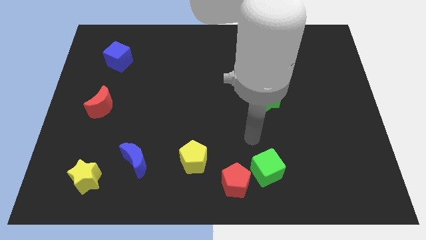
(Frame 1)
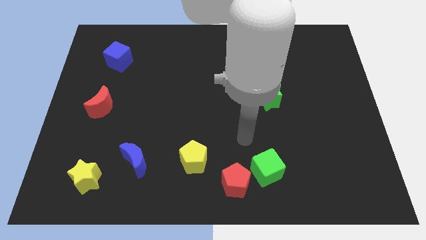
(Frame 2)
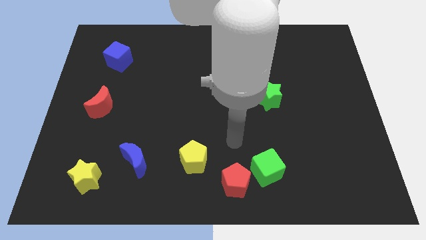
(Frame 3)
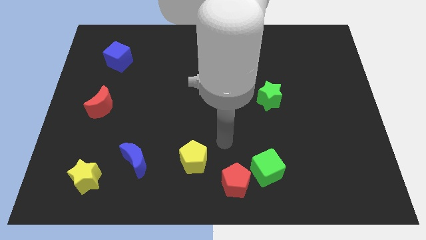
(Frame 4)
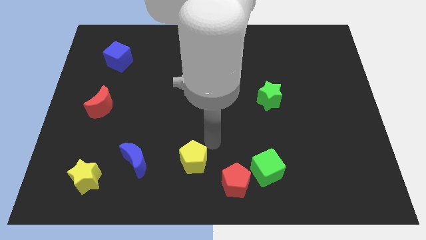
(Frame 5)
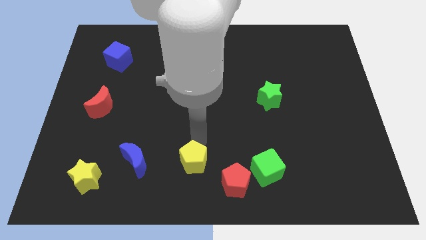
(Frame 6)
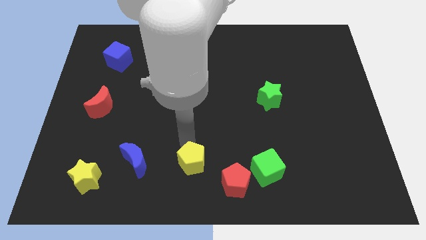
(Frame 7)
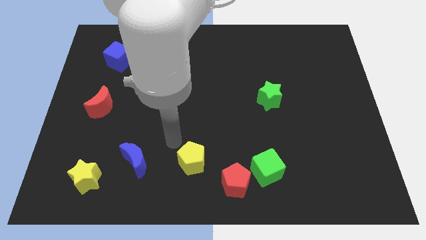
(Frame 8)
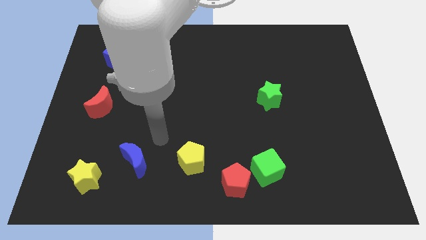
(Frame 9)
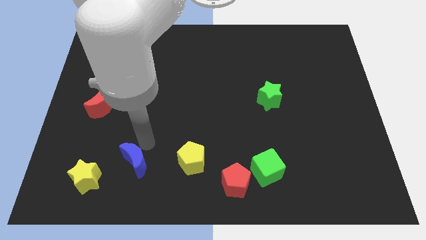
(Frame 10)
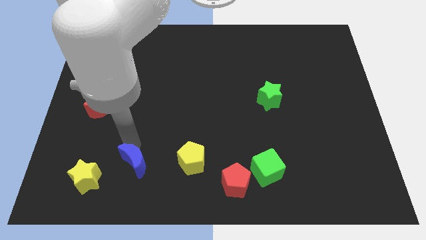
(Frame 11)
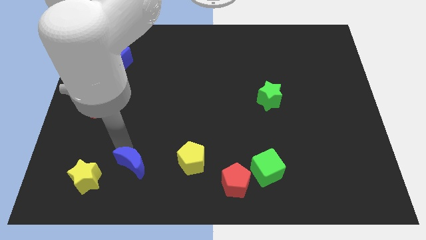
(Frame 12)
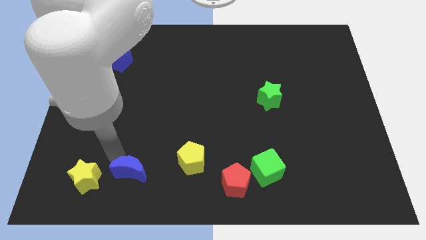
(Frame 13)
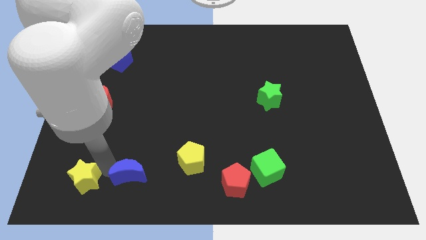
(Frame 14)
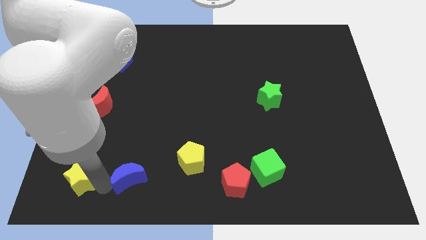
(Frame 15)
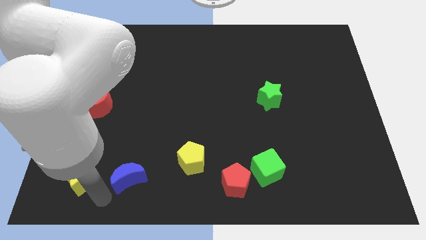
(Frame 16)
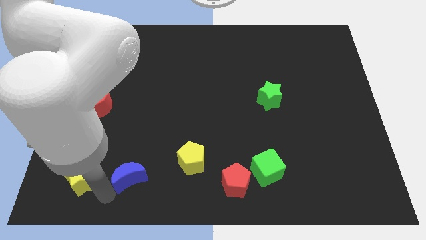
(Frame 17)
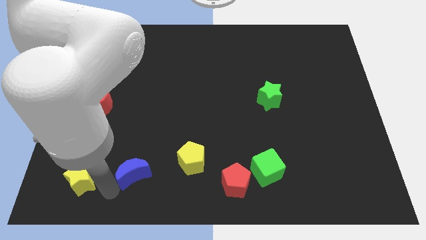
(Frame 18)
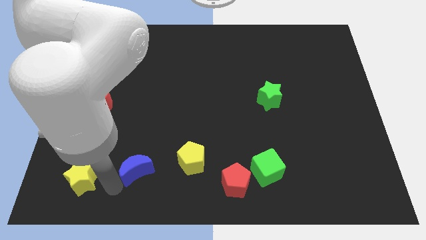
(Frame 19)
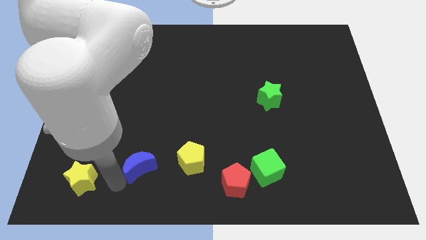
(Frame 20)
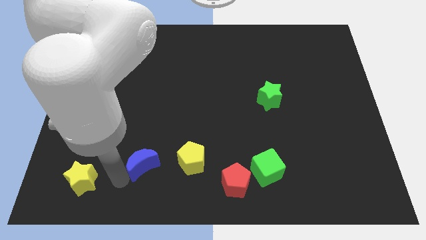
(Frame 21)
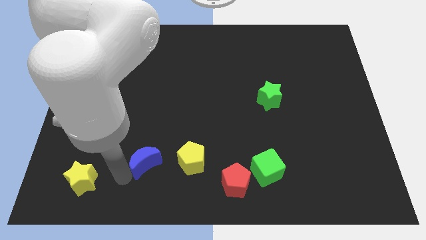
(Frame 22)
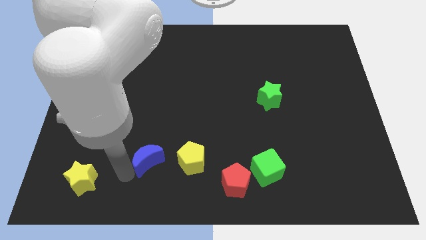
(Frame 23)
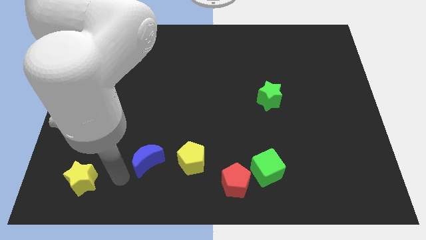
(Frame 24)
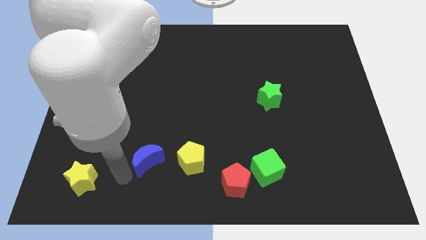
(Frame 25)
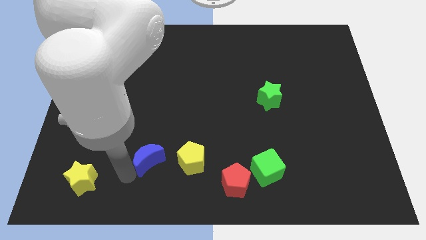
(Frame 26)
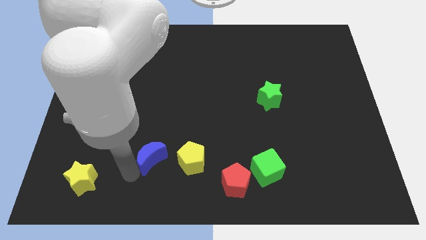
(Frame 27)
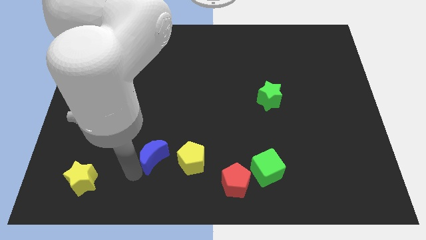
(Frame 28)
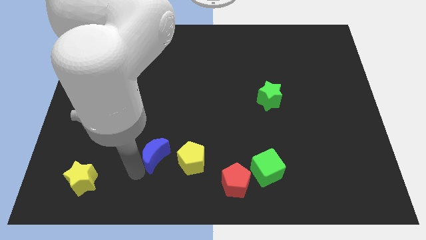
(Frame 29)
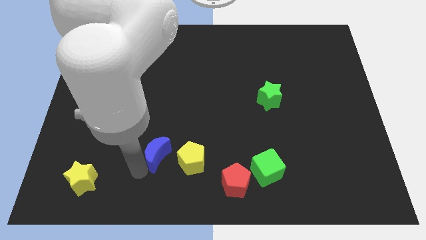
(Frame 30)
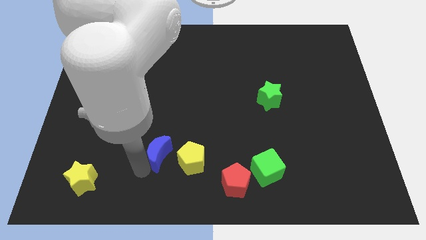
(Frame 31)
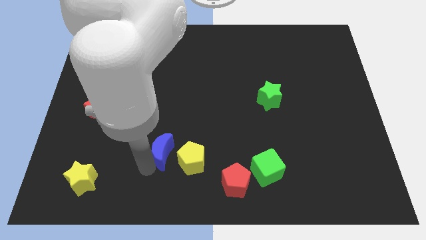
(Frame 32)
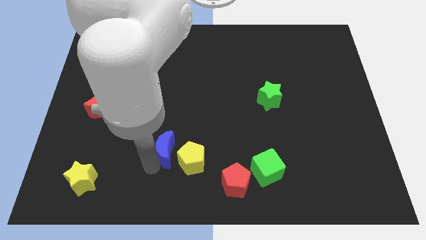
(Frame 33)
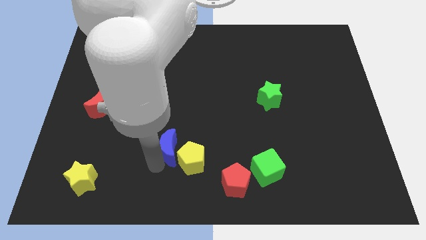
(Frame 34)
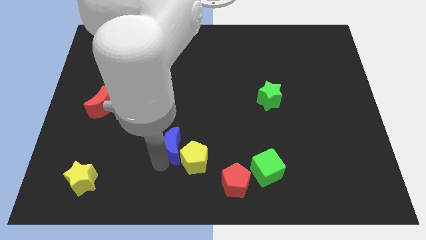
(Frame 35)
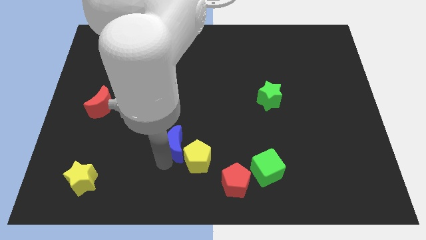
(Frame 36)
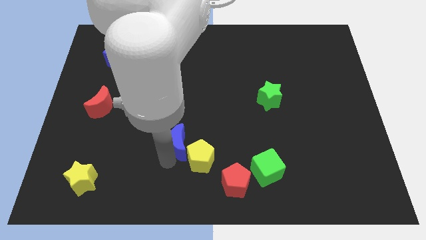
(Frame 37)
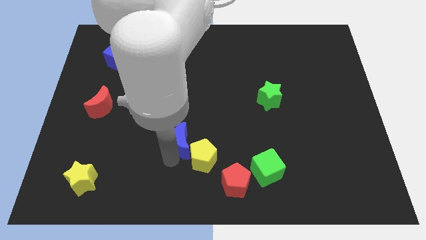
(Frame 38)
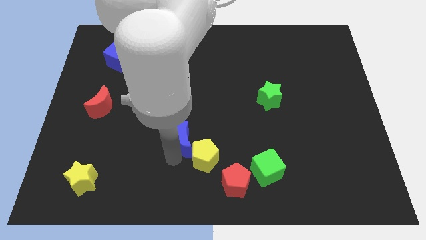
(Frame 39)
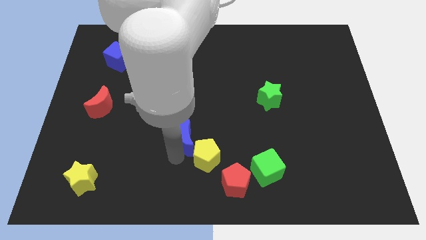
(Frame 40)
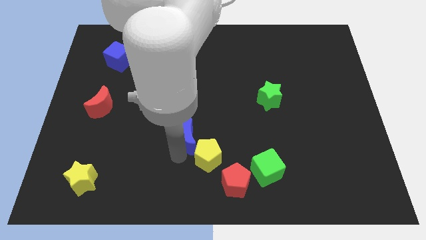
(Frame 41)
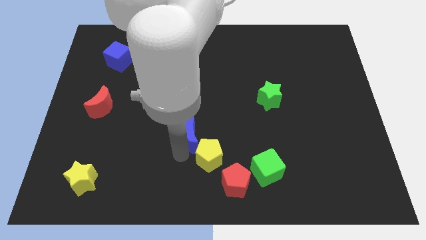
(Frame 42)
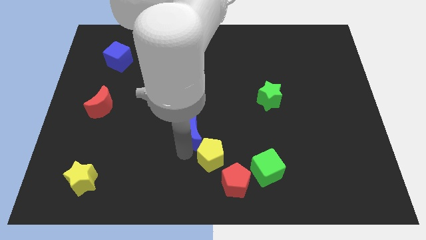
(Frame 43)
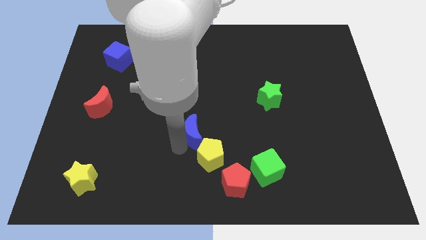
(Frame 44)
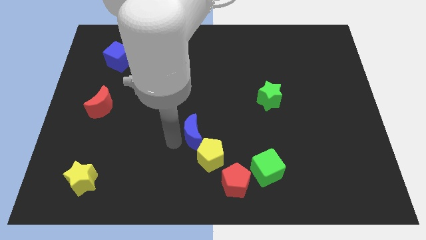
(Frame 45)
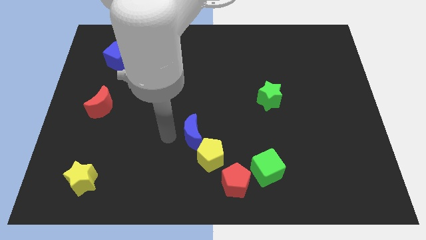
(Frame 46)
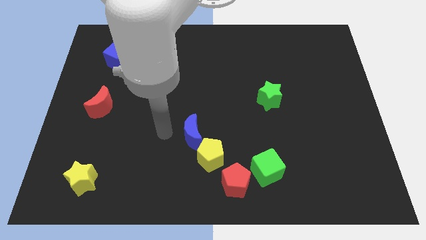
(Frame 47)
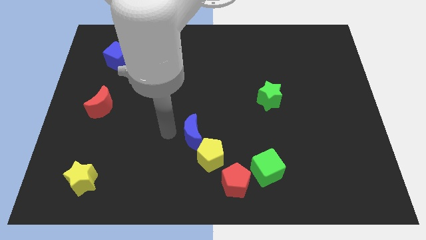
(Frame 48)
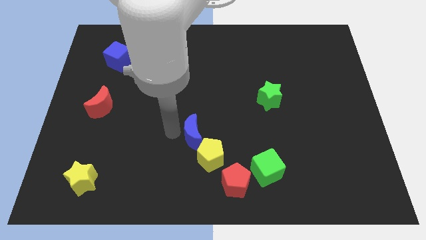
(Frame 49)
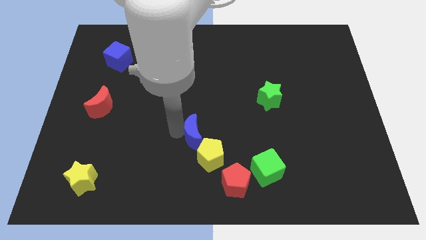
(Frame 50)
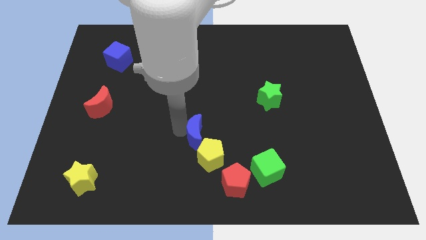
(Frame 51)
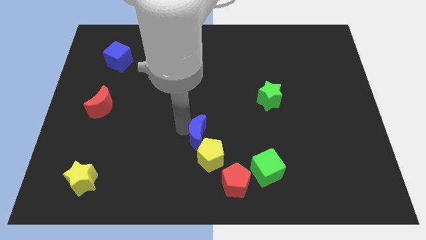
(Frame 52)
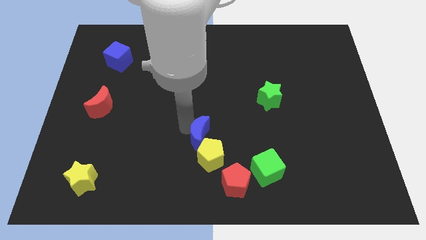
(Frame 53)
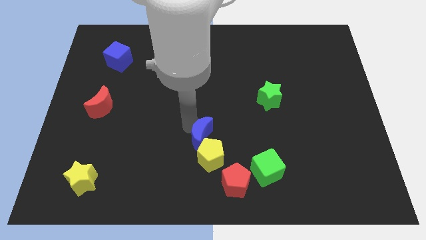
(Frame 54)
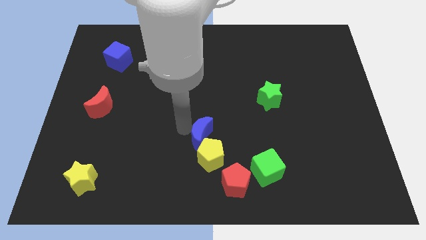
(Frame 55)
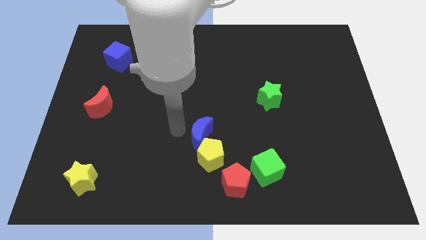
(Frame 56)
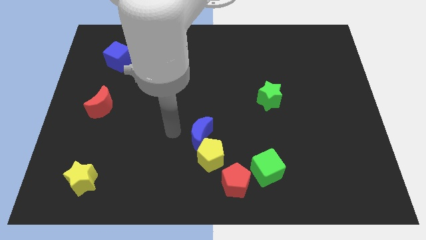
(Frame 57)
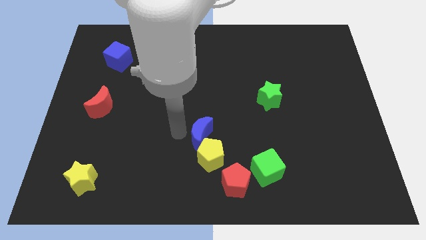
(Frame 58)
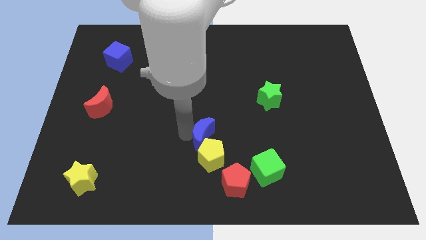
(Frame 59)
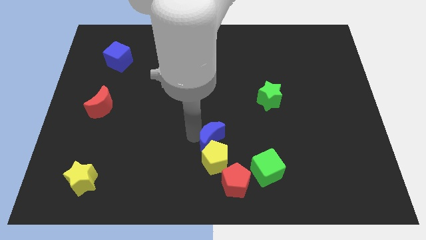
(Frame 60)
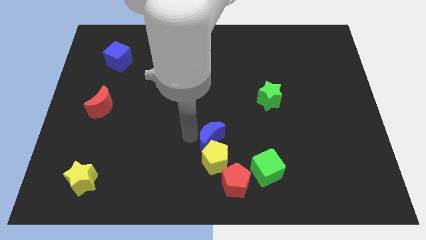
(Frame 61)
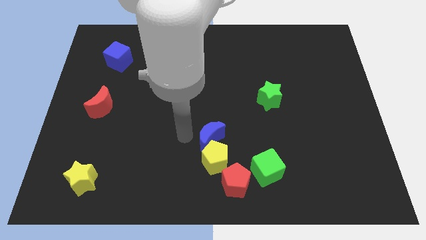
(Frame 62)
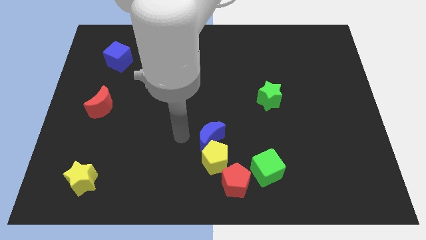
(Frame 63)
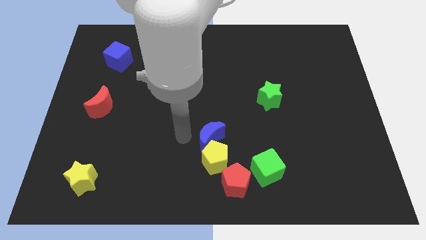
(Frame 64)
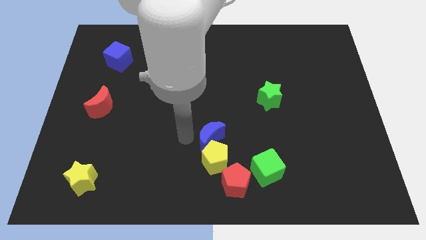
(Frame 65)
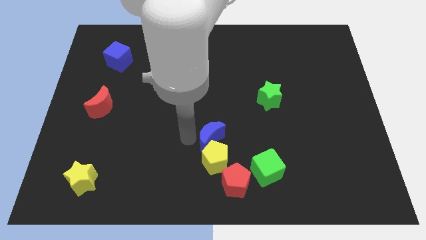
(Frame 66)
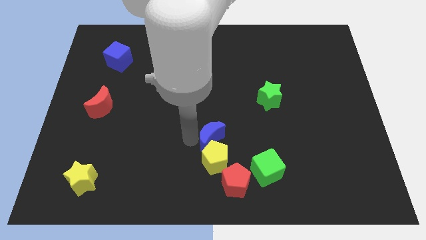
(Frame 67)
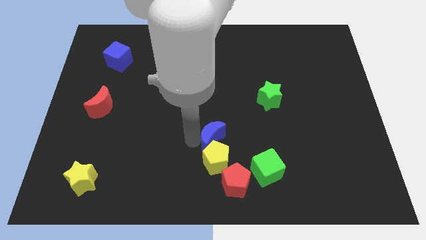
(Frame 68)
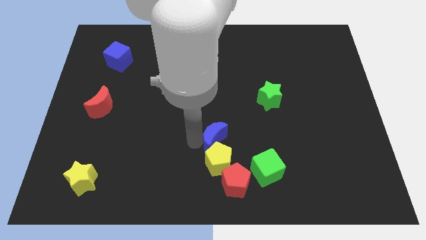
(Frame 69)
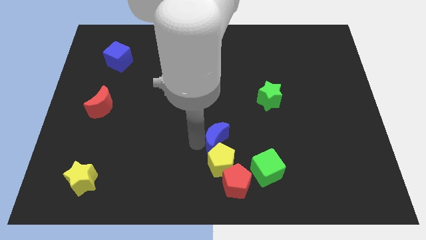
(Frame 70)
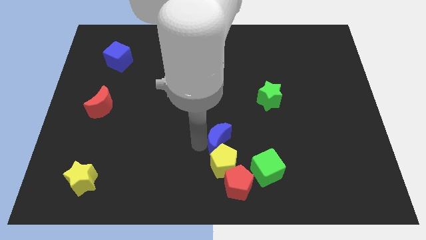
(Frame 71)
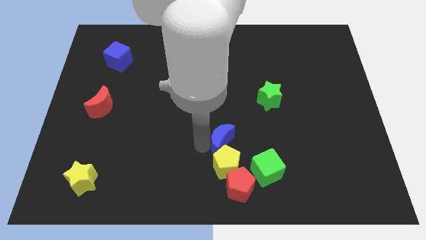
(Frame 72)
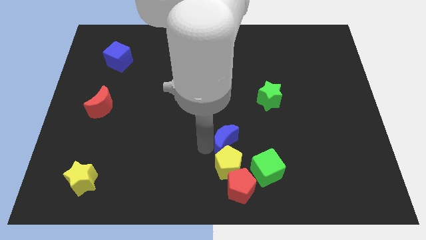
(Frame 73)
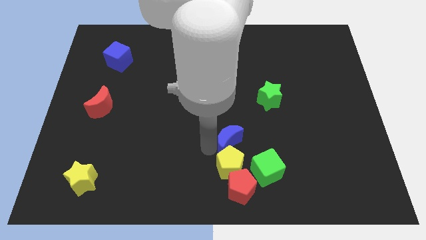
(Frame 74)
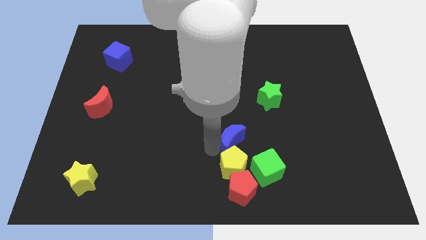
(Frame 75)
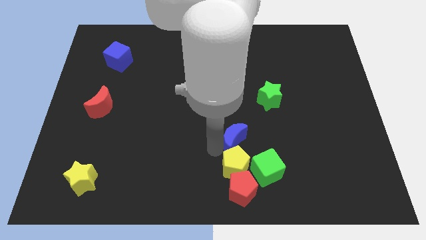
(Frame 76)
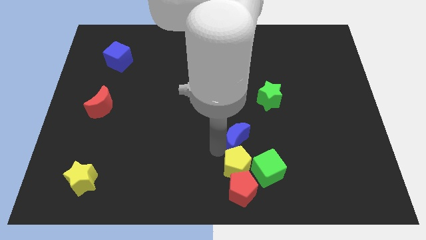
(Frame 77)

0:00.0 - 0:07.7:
slide the blue moon to the right

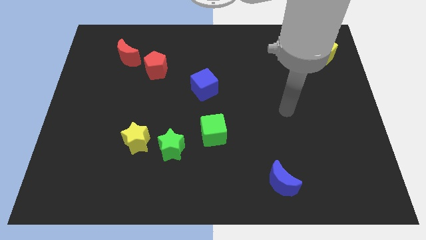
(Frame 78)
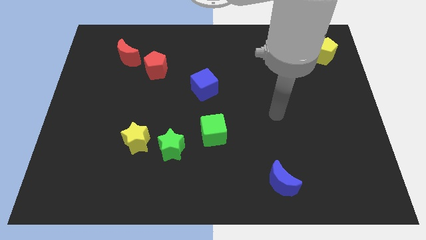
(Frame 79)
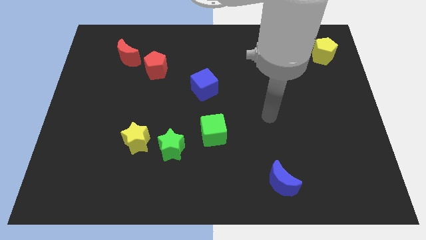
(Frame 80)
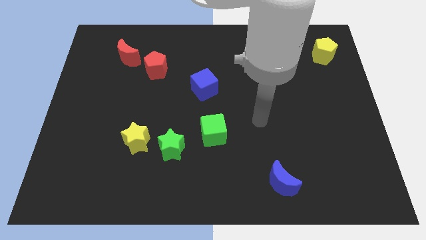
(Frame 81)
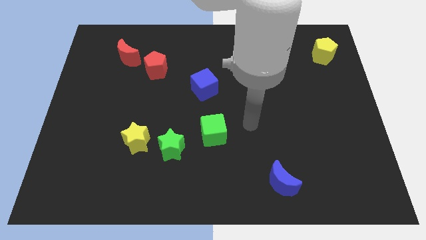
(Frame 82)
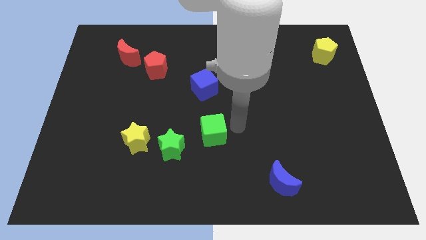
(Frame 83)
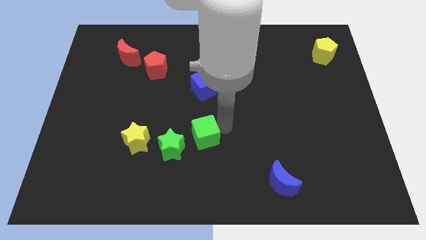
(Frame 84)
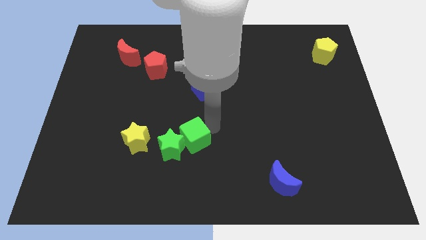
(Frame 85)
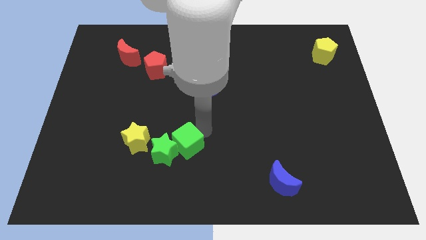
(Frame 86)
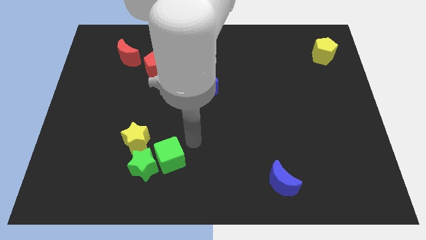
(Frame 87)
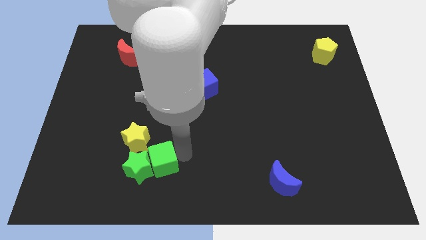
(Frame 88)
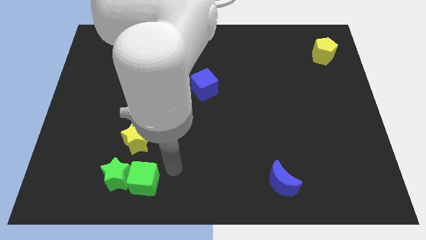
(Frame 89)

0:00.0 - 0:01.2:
push the green star a bit left
